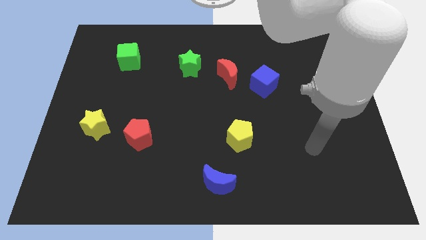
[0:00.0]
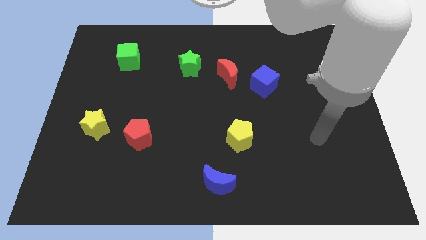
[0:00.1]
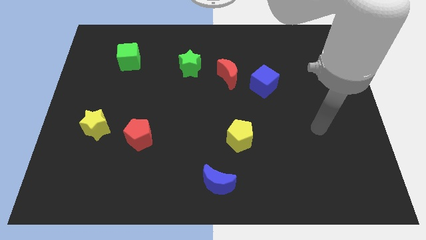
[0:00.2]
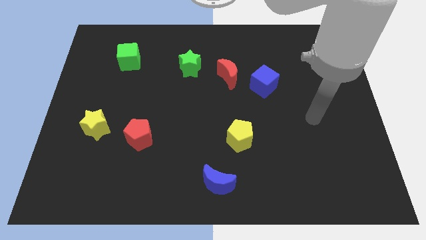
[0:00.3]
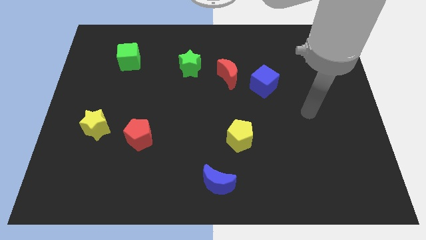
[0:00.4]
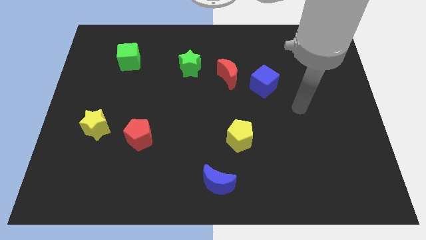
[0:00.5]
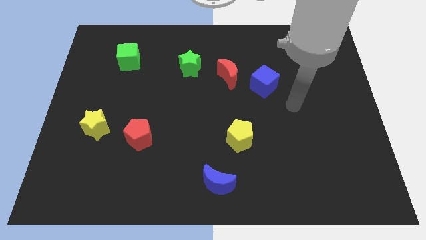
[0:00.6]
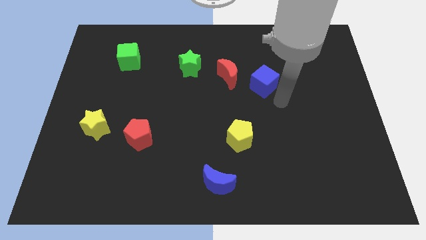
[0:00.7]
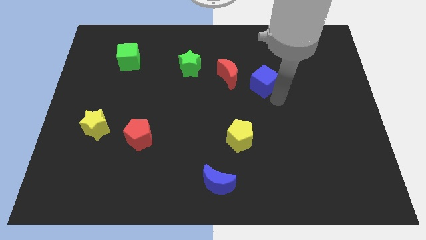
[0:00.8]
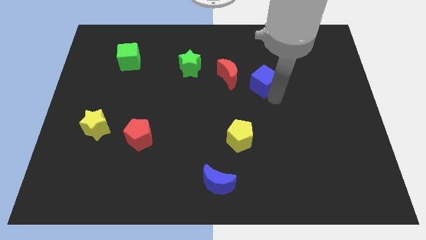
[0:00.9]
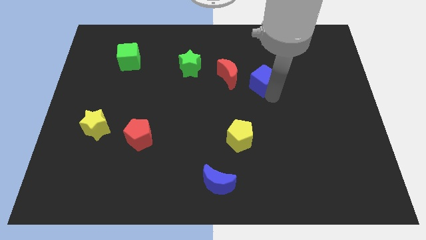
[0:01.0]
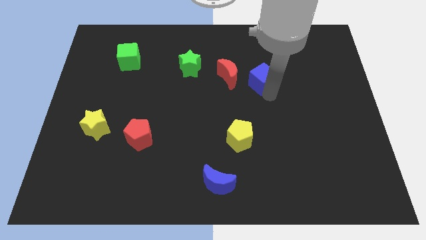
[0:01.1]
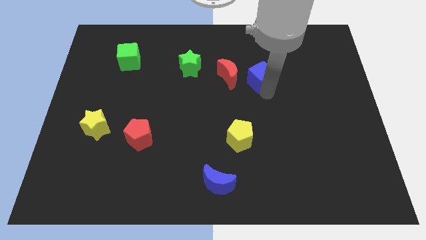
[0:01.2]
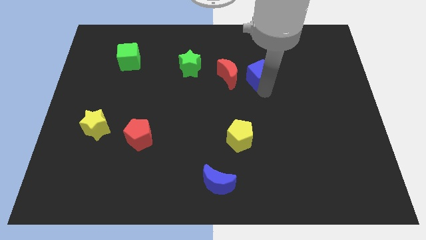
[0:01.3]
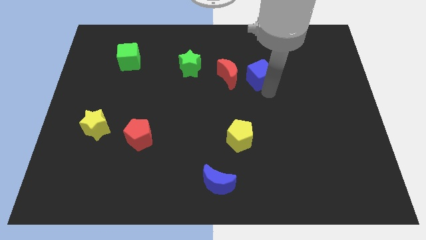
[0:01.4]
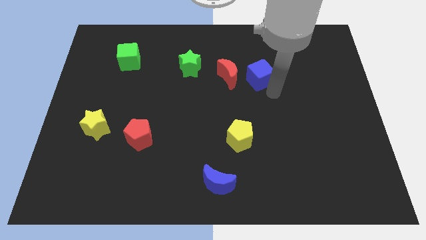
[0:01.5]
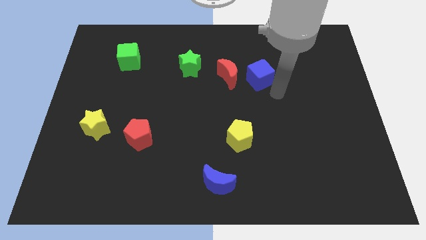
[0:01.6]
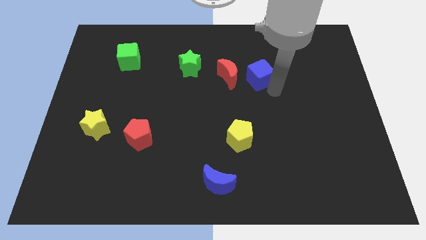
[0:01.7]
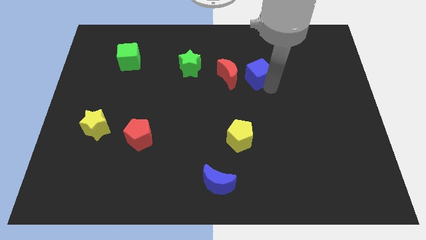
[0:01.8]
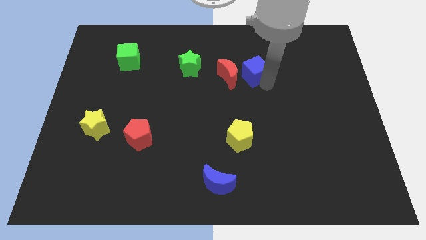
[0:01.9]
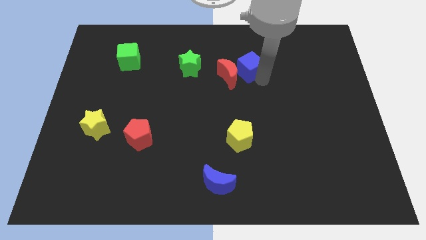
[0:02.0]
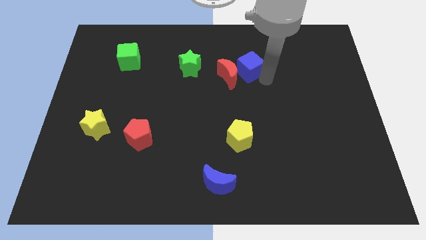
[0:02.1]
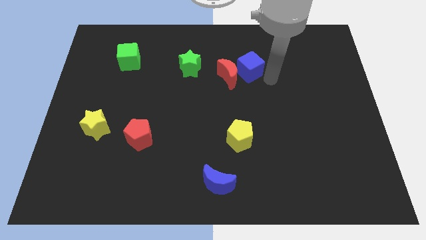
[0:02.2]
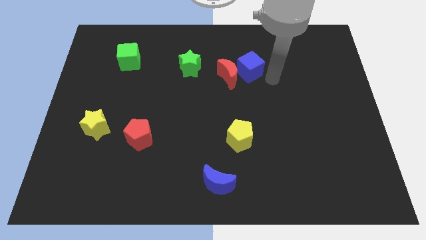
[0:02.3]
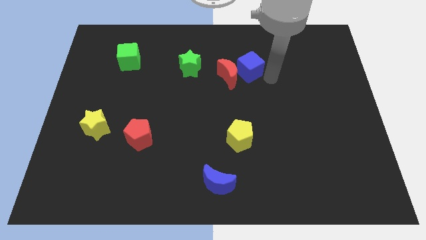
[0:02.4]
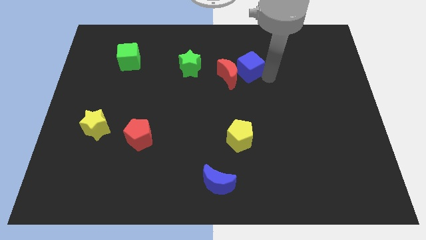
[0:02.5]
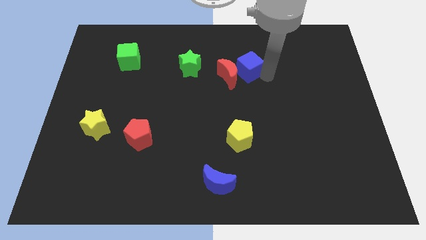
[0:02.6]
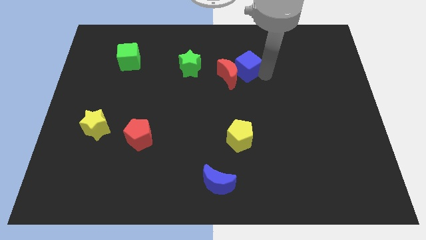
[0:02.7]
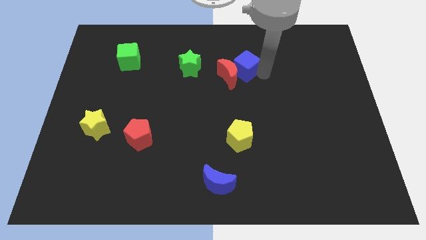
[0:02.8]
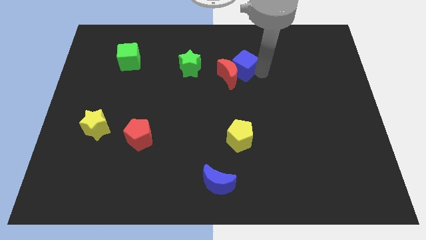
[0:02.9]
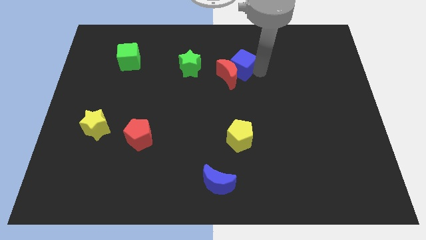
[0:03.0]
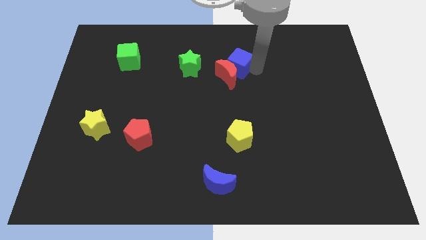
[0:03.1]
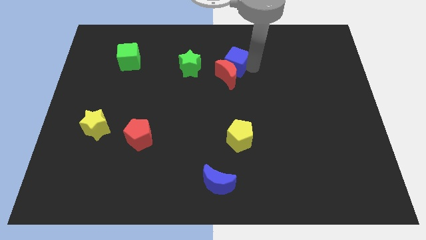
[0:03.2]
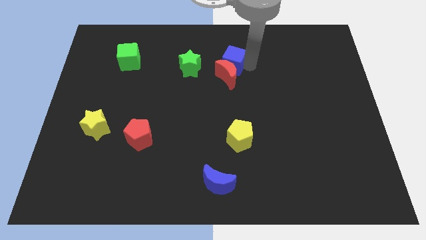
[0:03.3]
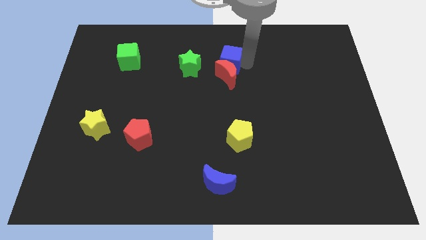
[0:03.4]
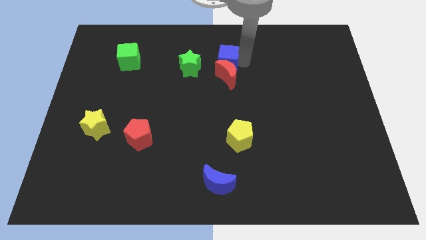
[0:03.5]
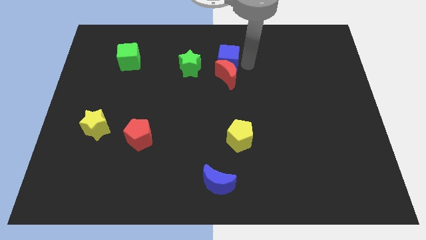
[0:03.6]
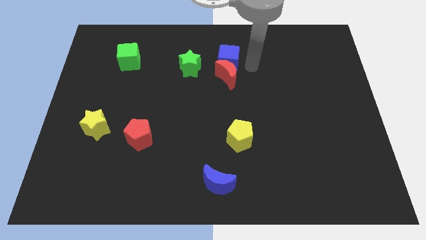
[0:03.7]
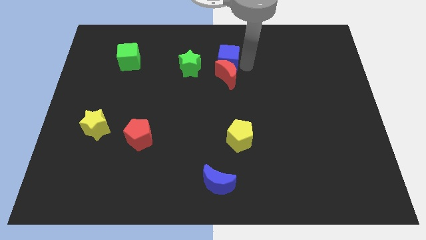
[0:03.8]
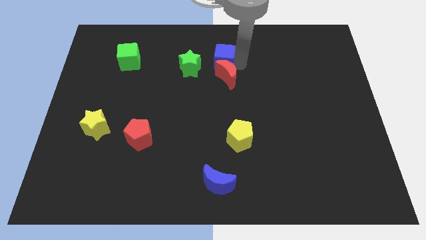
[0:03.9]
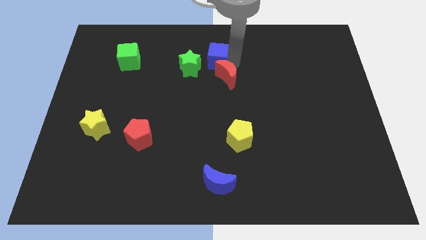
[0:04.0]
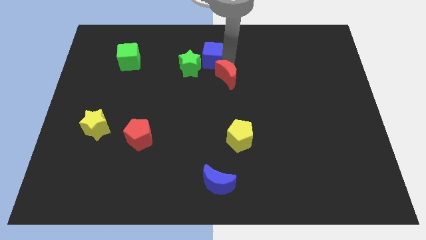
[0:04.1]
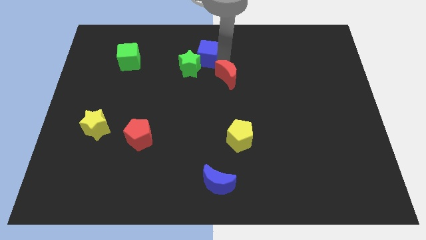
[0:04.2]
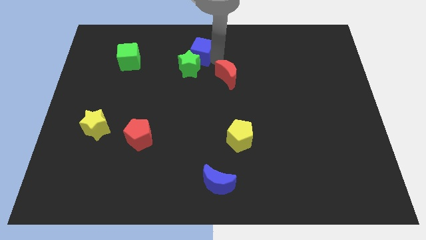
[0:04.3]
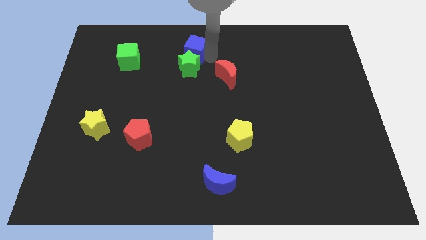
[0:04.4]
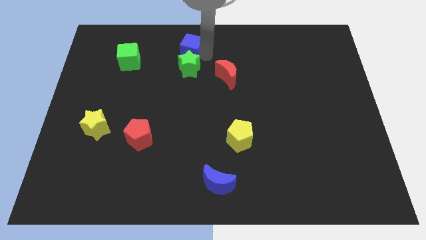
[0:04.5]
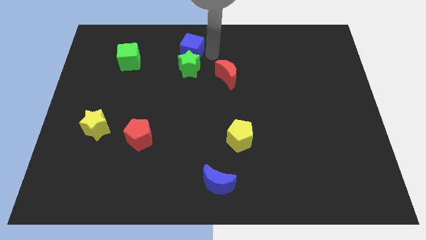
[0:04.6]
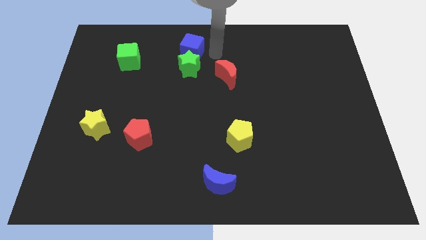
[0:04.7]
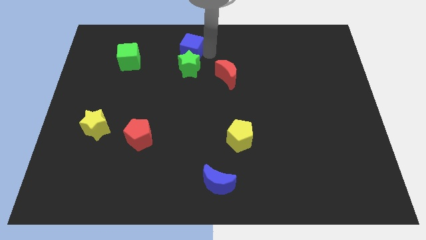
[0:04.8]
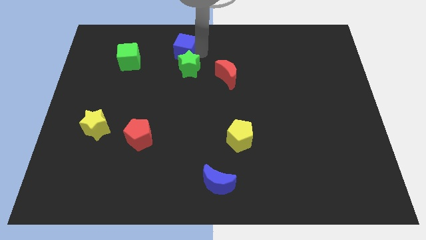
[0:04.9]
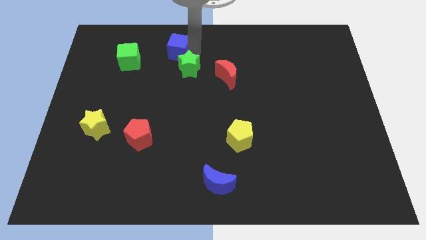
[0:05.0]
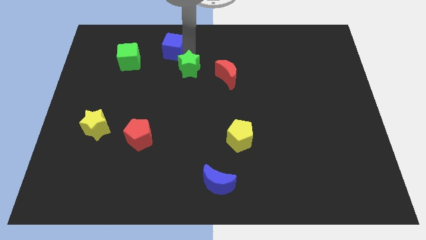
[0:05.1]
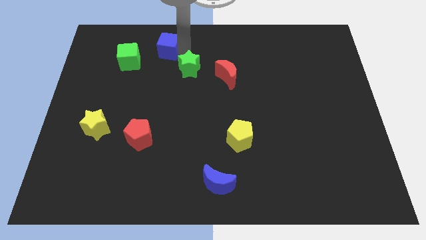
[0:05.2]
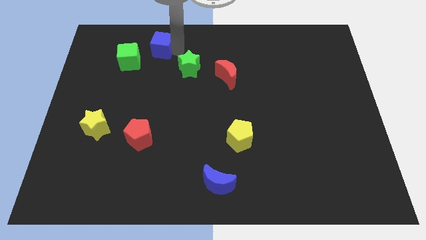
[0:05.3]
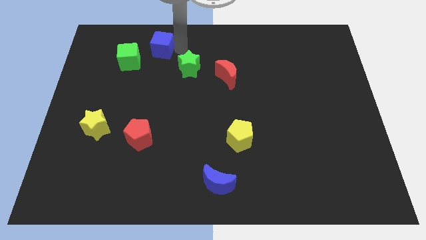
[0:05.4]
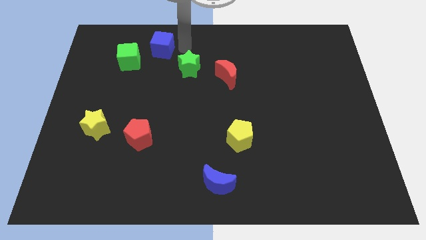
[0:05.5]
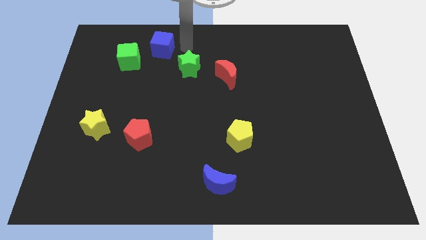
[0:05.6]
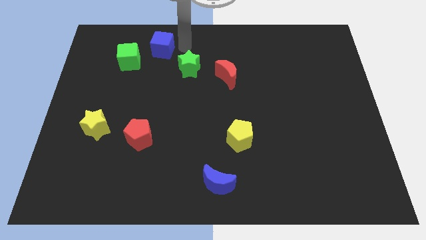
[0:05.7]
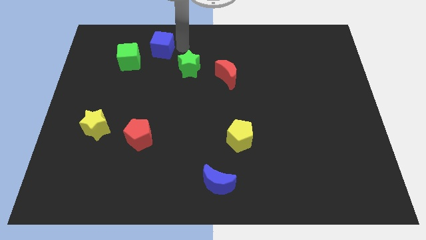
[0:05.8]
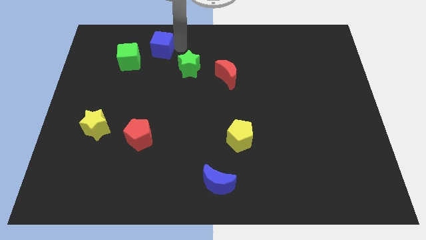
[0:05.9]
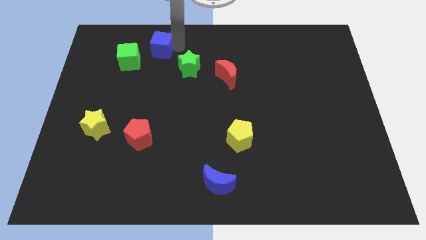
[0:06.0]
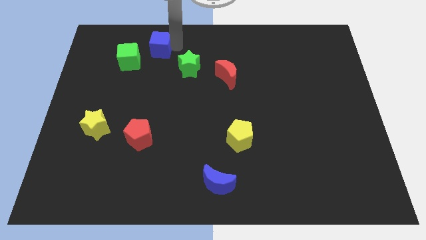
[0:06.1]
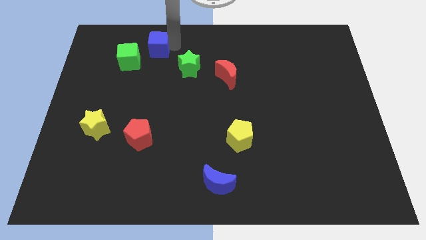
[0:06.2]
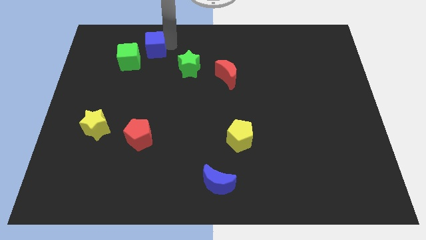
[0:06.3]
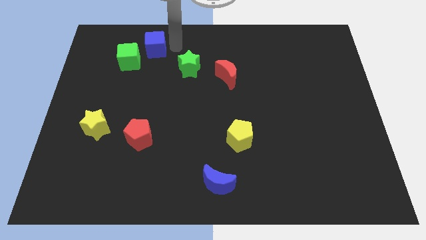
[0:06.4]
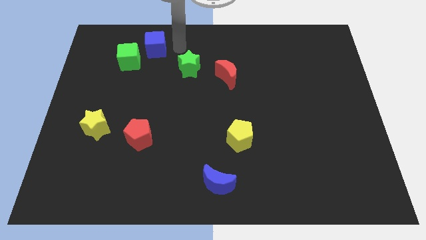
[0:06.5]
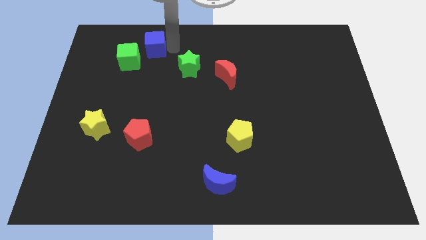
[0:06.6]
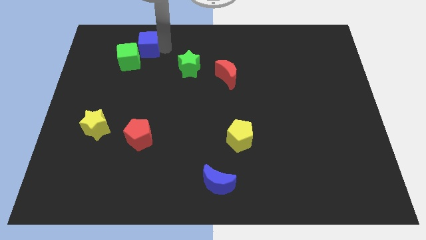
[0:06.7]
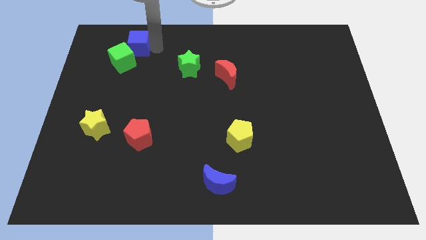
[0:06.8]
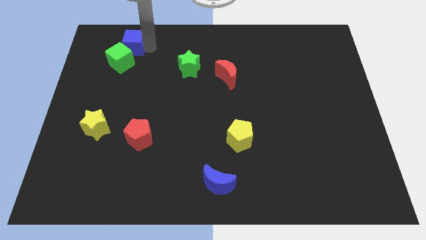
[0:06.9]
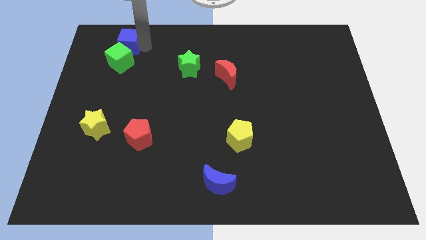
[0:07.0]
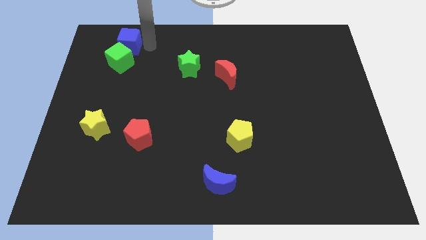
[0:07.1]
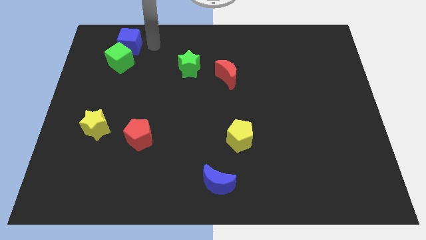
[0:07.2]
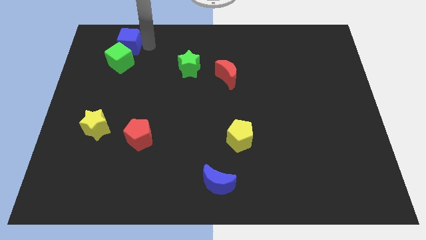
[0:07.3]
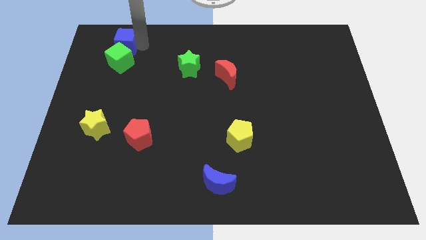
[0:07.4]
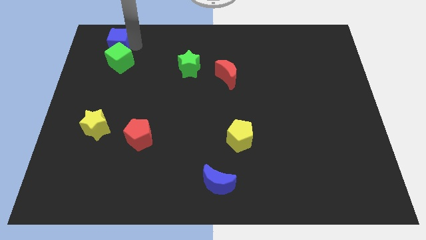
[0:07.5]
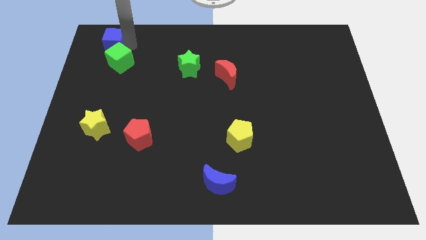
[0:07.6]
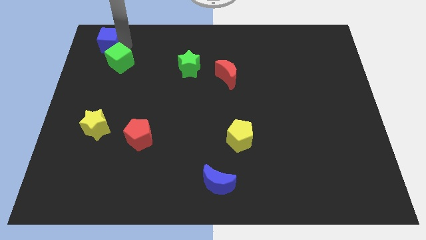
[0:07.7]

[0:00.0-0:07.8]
push the blue cube to the top left
